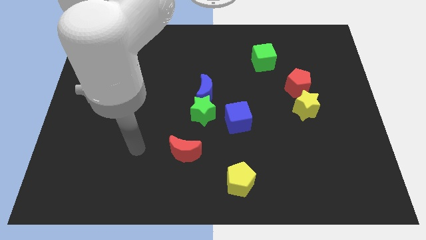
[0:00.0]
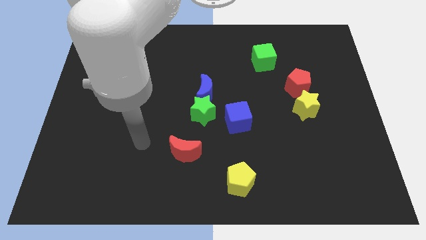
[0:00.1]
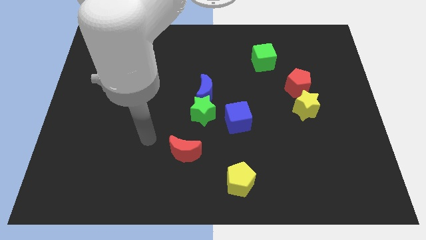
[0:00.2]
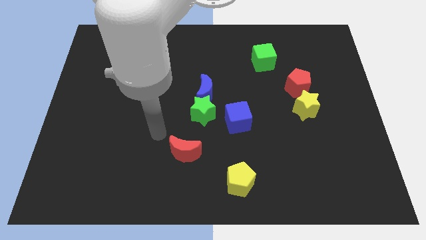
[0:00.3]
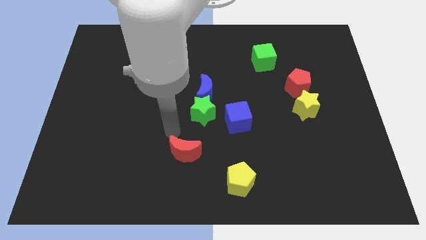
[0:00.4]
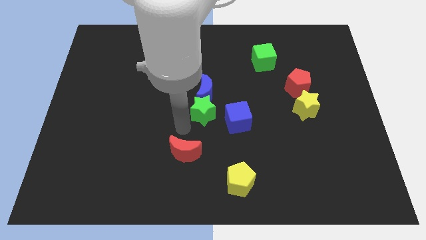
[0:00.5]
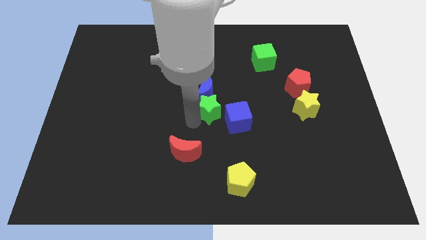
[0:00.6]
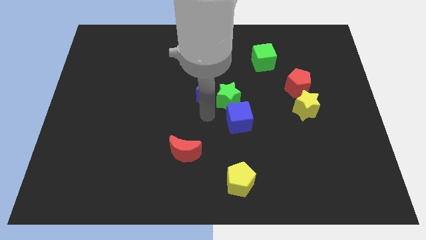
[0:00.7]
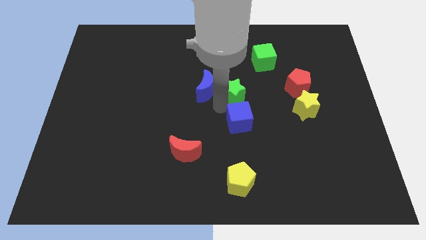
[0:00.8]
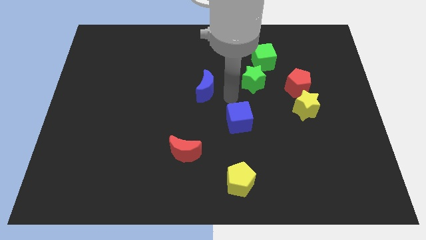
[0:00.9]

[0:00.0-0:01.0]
move the blue moon away from the green star

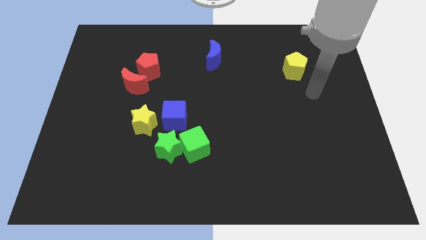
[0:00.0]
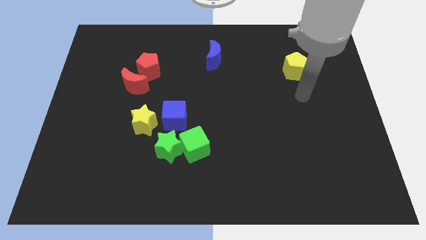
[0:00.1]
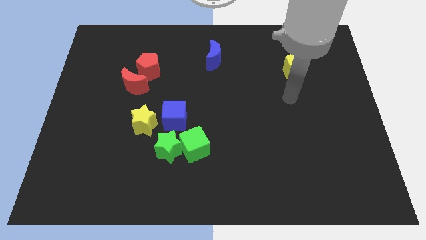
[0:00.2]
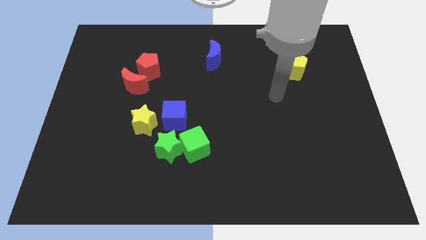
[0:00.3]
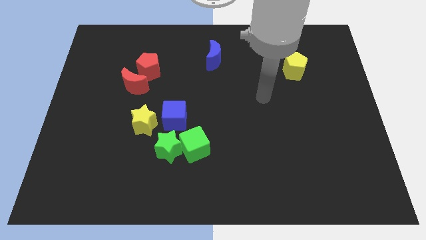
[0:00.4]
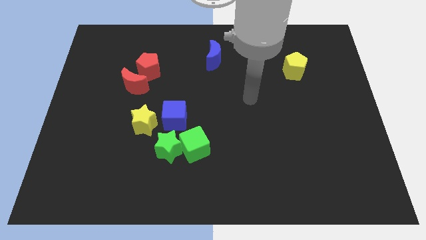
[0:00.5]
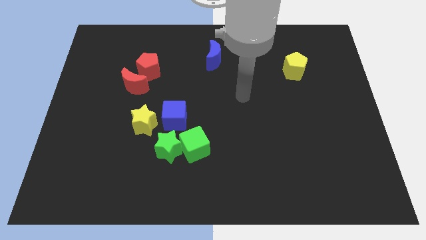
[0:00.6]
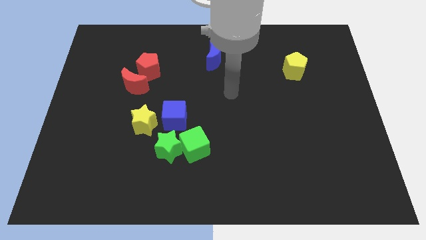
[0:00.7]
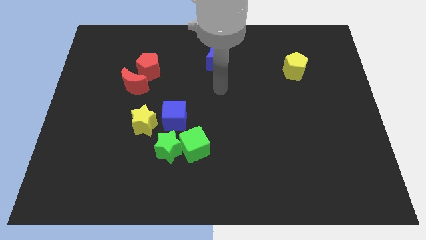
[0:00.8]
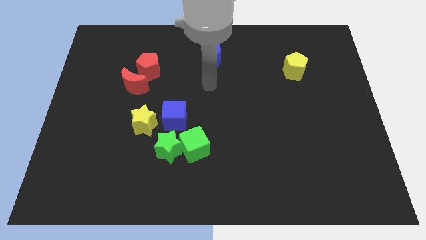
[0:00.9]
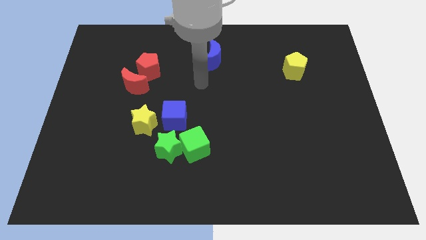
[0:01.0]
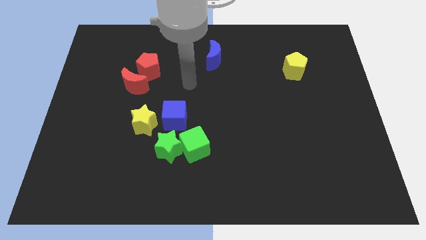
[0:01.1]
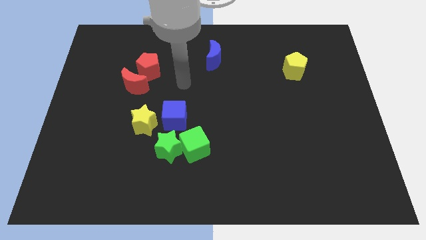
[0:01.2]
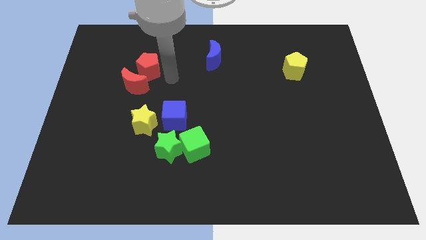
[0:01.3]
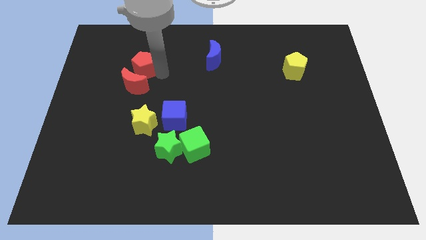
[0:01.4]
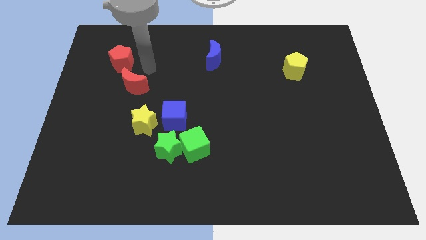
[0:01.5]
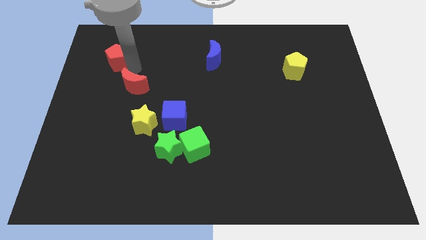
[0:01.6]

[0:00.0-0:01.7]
separate the red moon from the red pentagon

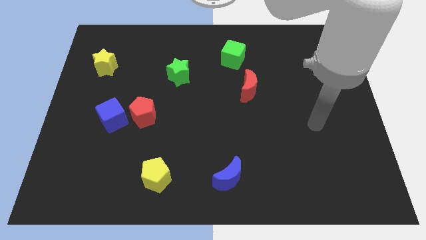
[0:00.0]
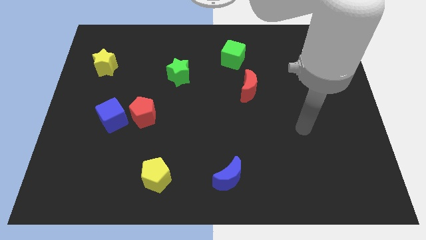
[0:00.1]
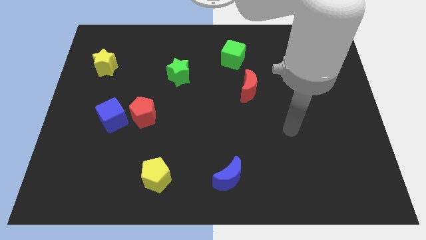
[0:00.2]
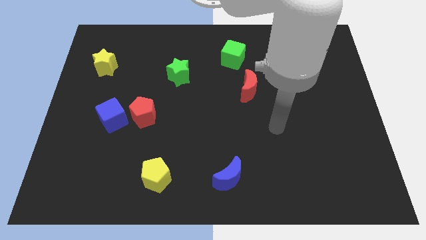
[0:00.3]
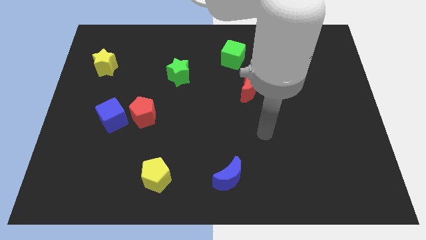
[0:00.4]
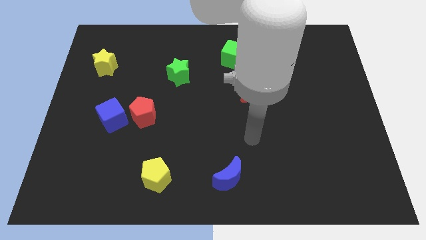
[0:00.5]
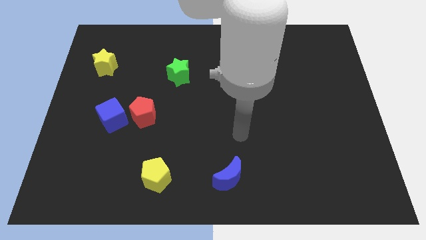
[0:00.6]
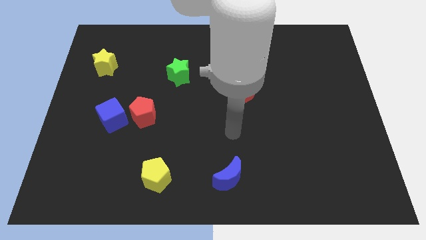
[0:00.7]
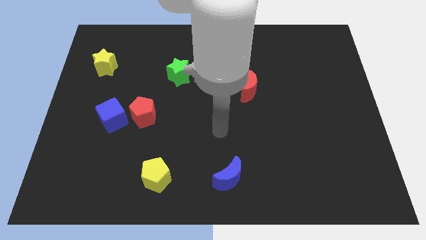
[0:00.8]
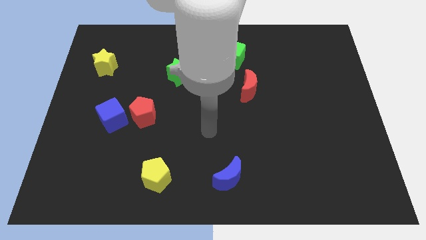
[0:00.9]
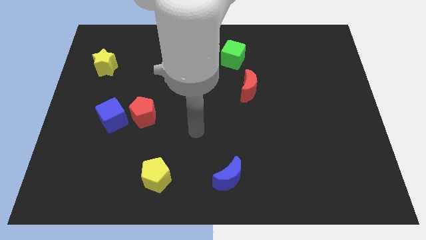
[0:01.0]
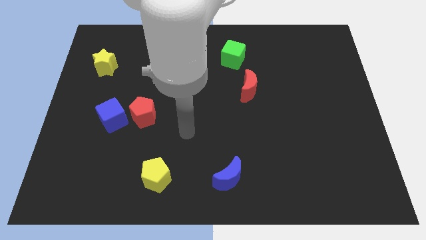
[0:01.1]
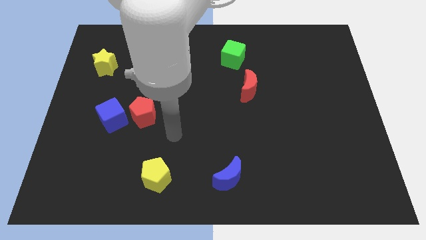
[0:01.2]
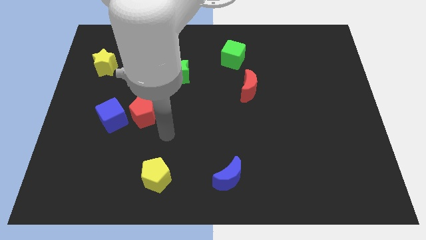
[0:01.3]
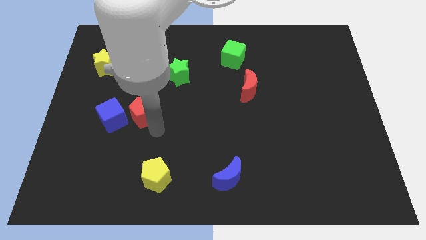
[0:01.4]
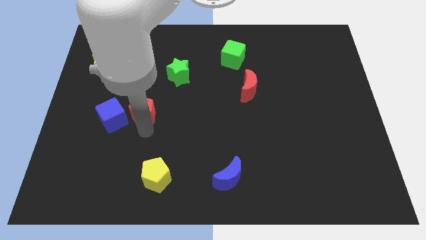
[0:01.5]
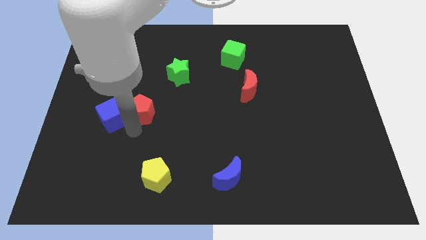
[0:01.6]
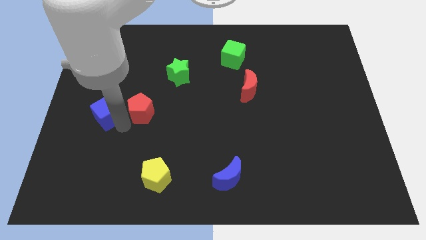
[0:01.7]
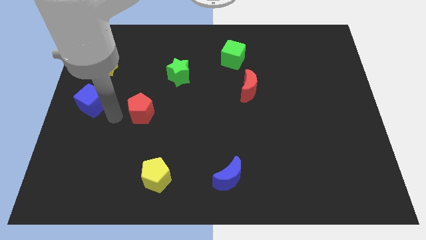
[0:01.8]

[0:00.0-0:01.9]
pull the red pentagon apart from the blue cube

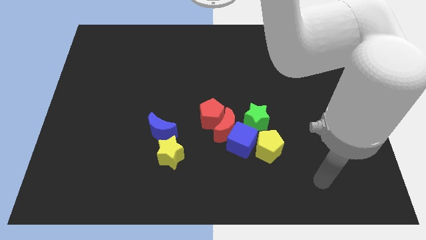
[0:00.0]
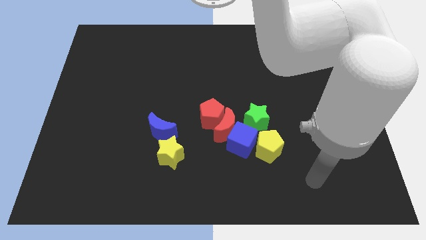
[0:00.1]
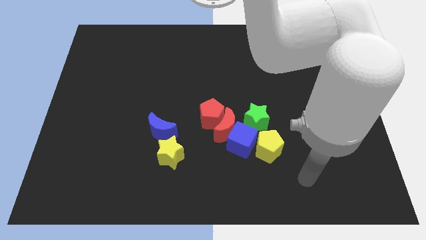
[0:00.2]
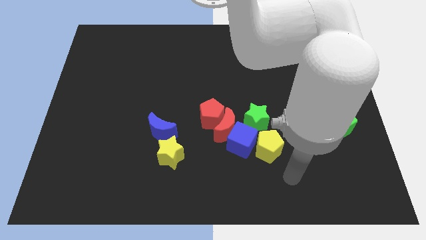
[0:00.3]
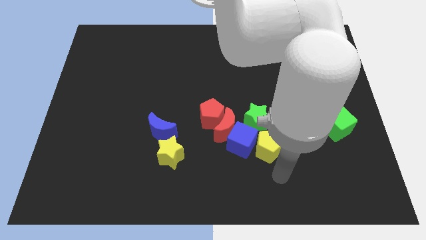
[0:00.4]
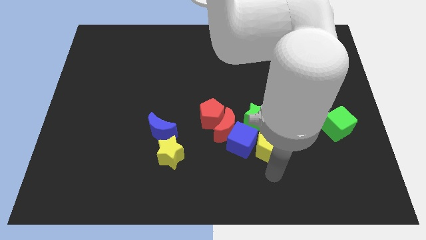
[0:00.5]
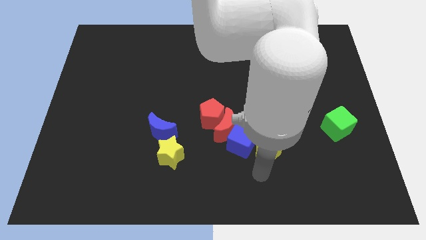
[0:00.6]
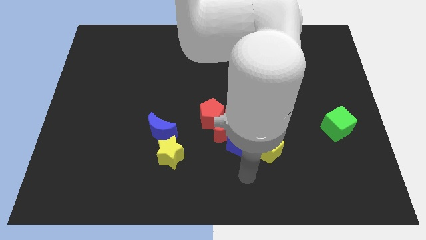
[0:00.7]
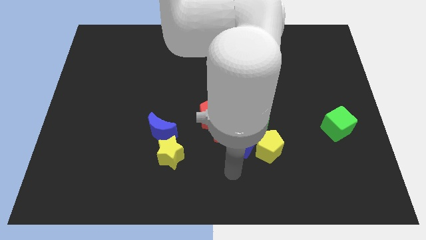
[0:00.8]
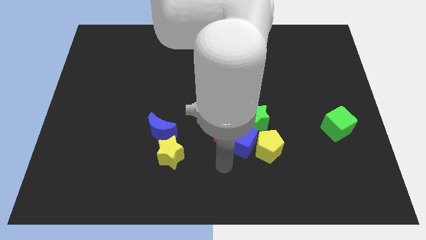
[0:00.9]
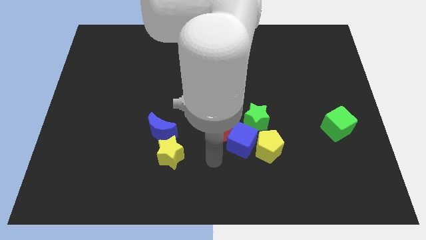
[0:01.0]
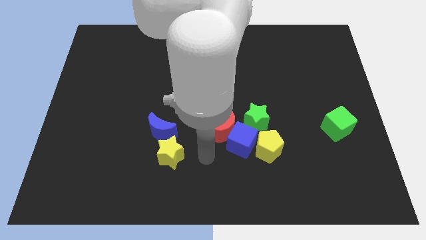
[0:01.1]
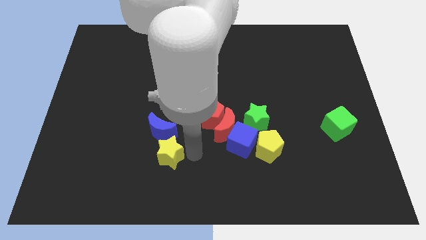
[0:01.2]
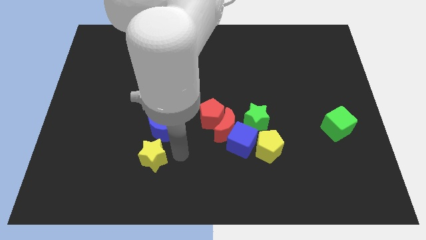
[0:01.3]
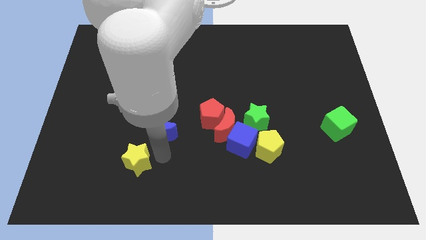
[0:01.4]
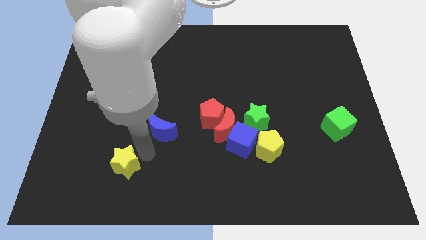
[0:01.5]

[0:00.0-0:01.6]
move the blue moon away from the yellow star

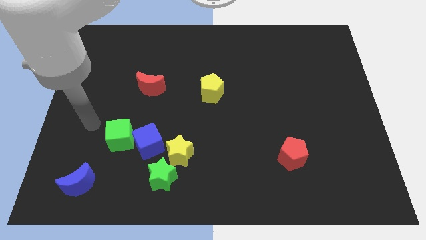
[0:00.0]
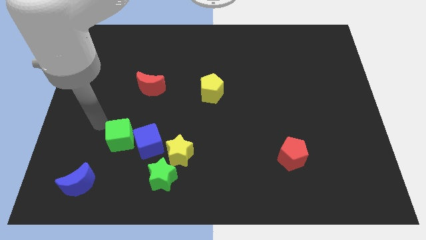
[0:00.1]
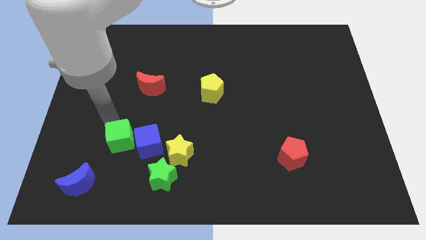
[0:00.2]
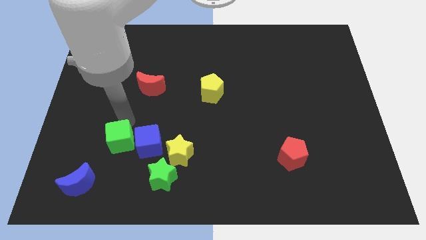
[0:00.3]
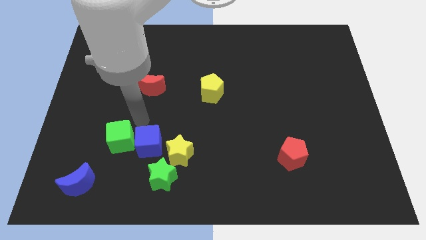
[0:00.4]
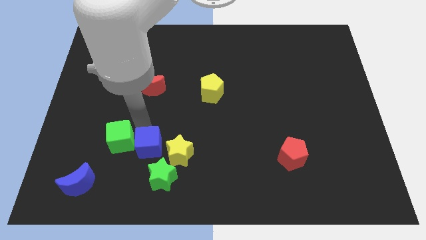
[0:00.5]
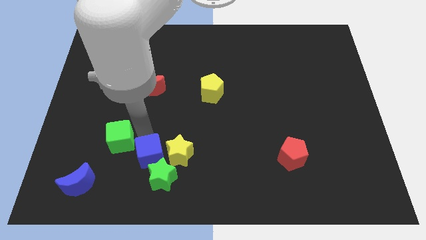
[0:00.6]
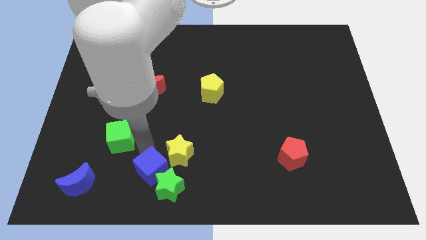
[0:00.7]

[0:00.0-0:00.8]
move the green cube away from the blue cube

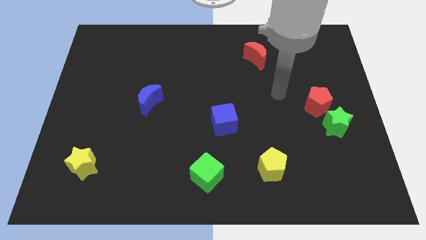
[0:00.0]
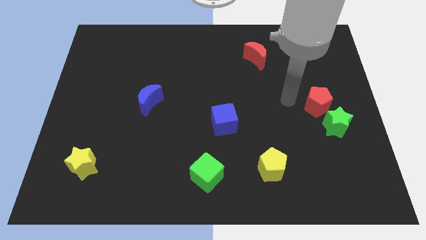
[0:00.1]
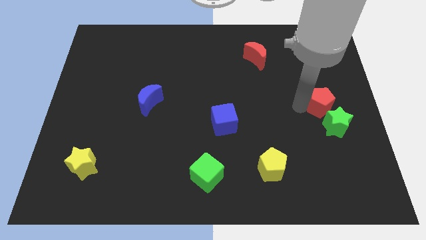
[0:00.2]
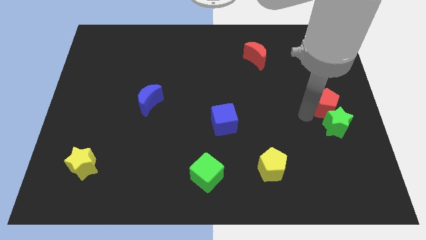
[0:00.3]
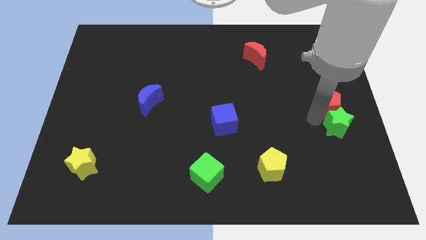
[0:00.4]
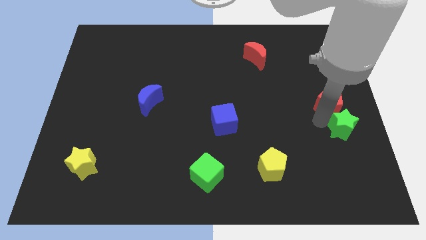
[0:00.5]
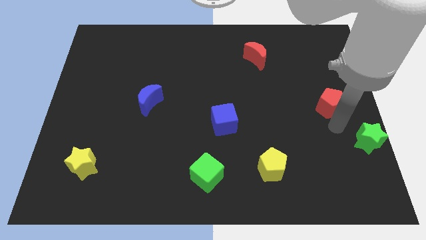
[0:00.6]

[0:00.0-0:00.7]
pull the red pentagon apart from the green star

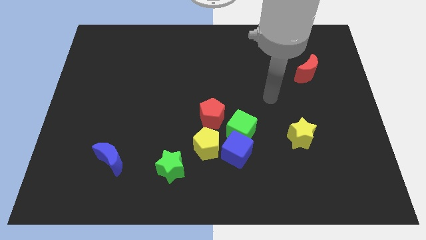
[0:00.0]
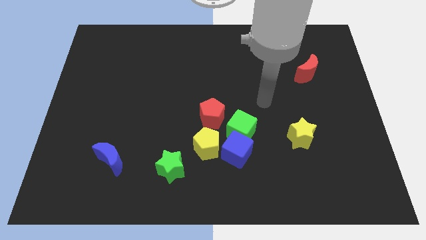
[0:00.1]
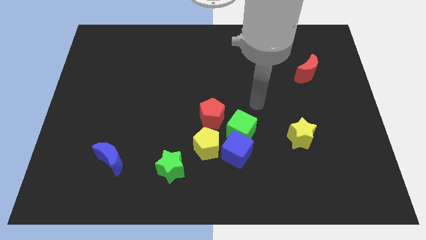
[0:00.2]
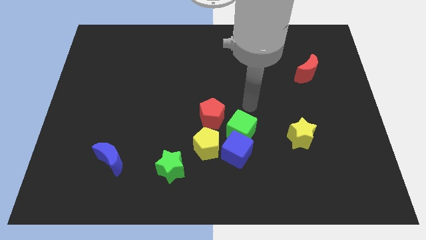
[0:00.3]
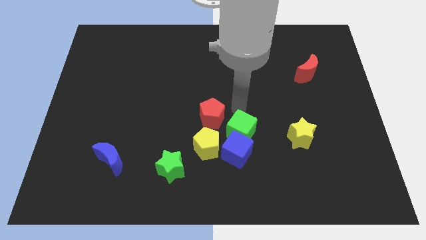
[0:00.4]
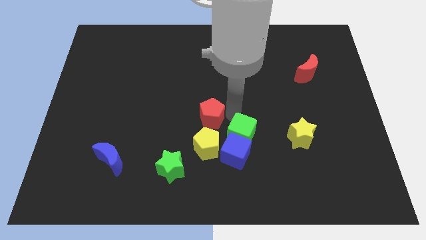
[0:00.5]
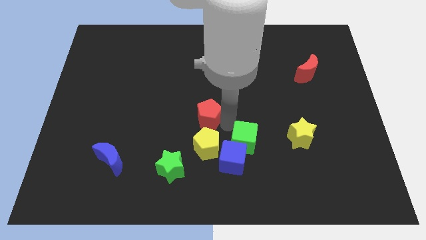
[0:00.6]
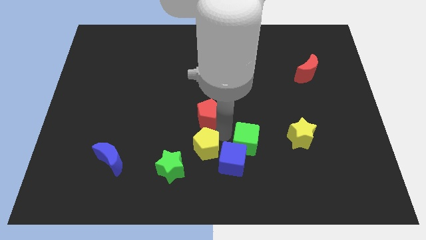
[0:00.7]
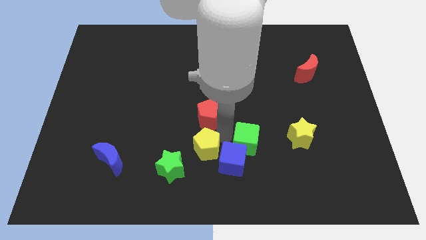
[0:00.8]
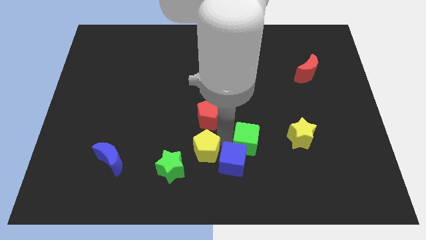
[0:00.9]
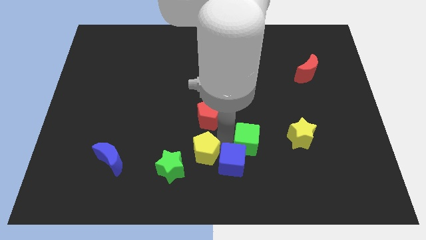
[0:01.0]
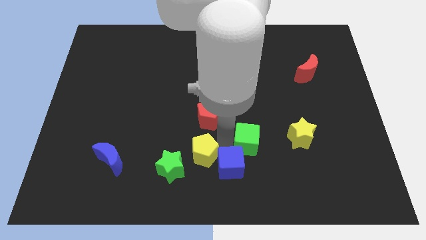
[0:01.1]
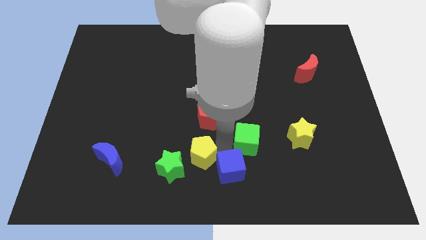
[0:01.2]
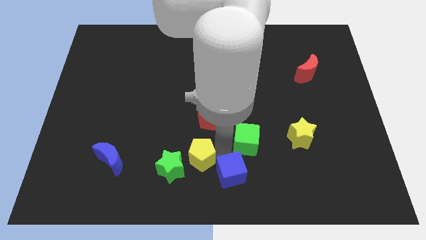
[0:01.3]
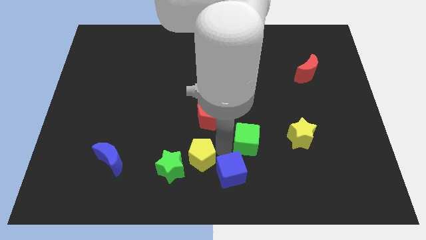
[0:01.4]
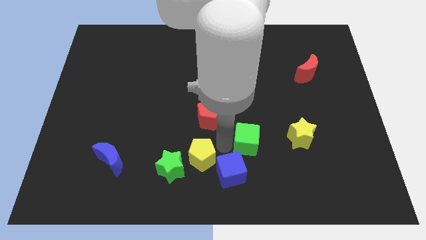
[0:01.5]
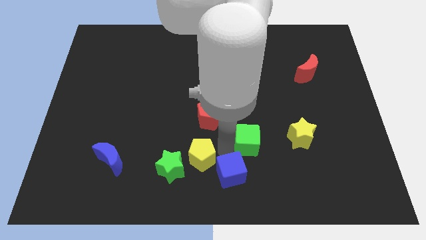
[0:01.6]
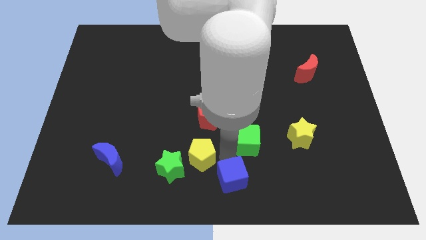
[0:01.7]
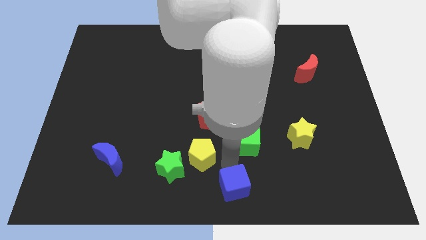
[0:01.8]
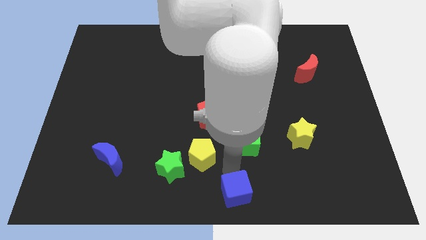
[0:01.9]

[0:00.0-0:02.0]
separate the blue cube from the green cube and yellow pentagon
